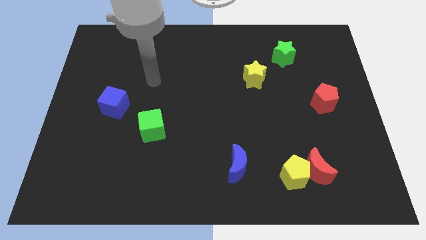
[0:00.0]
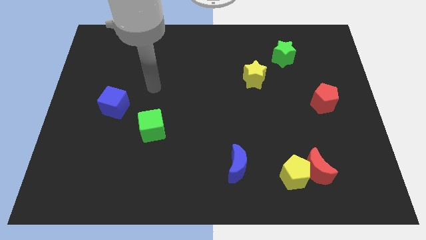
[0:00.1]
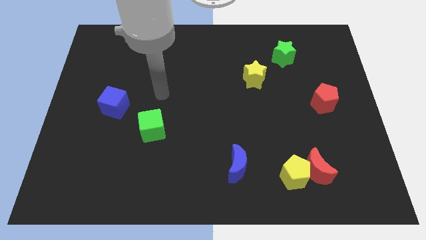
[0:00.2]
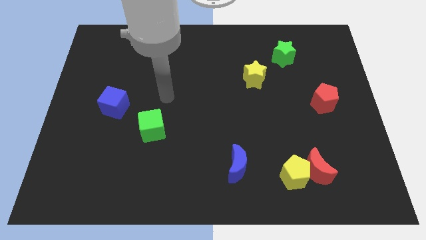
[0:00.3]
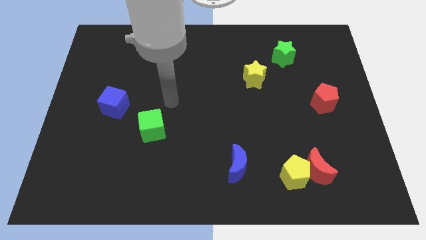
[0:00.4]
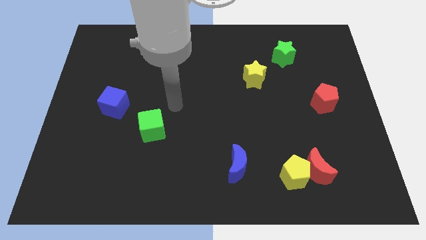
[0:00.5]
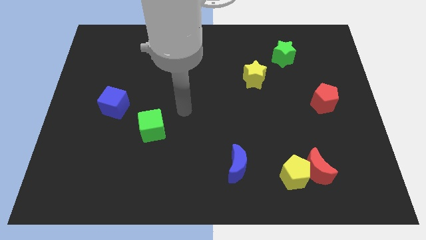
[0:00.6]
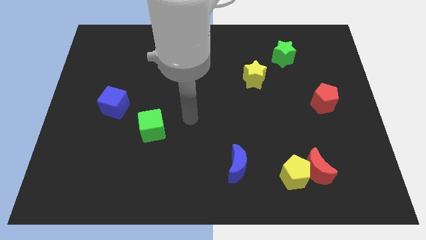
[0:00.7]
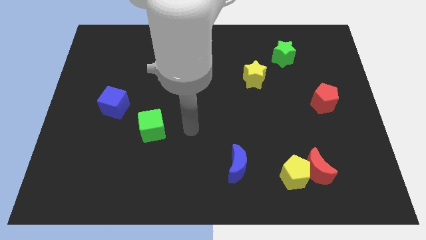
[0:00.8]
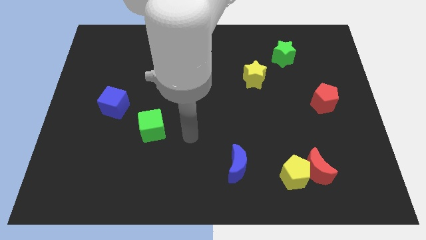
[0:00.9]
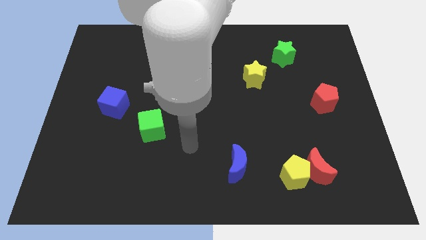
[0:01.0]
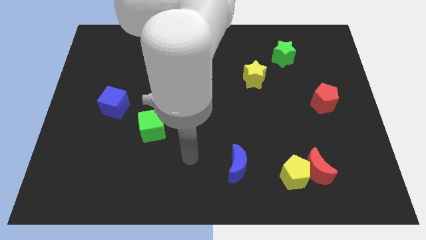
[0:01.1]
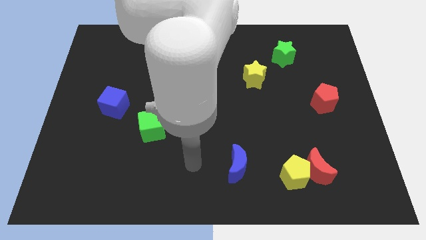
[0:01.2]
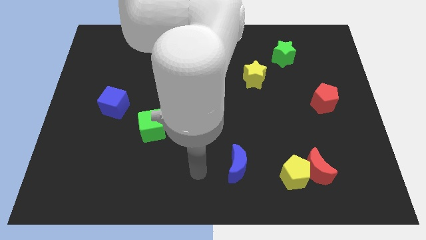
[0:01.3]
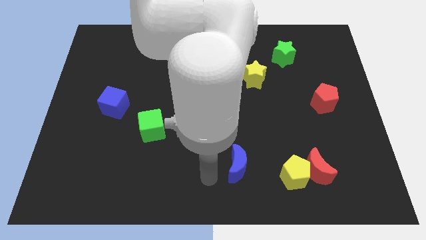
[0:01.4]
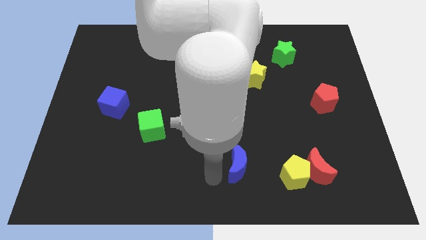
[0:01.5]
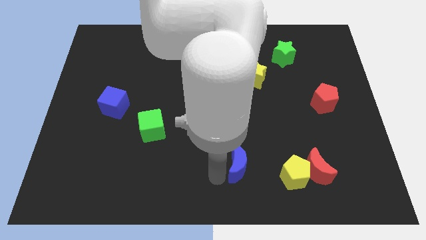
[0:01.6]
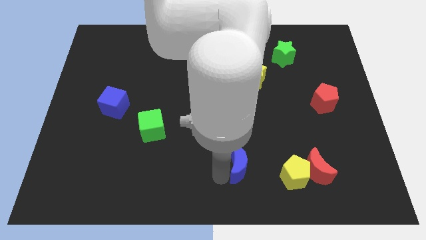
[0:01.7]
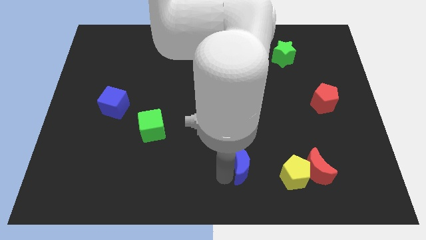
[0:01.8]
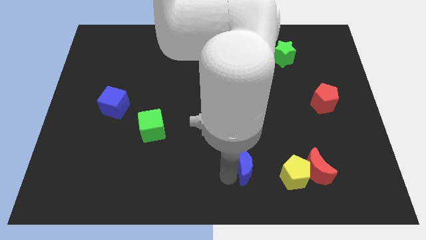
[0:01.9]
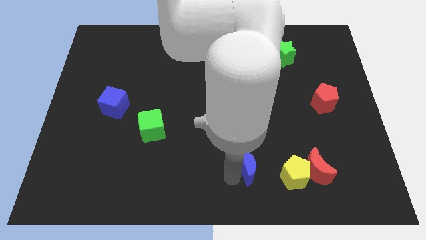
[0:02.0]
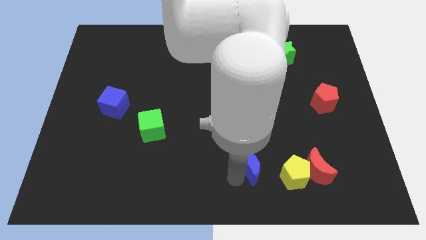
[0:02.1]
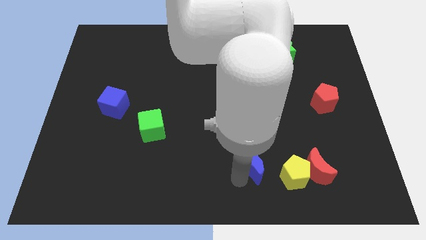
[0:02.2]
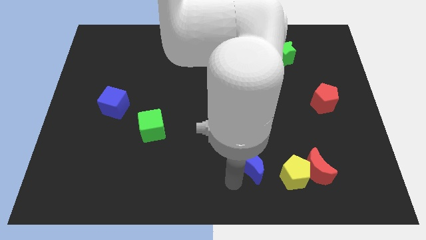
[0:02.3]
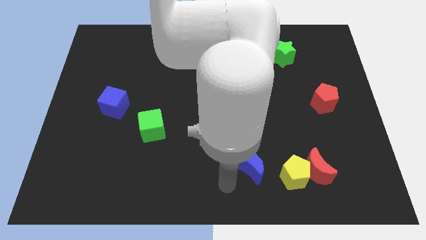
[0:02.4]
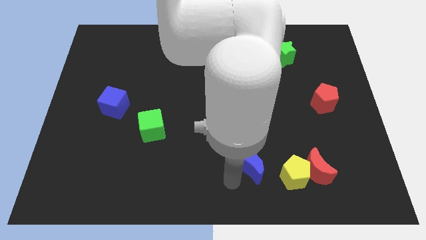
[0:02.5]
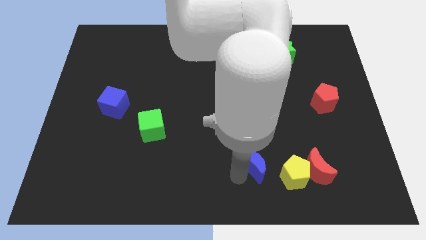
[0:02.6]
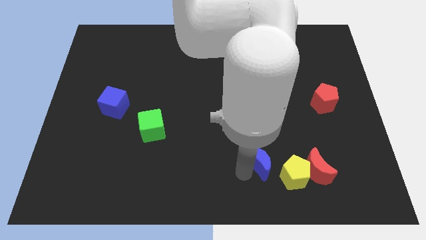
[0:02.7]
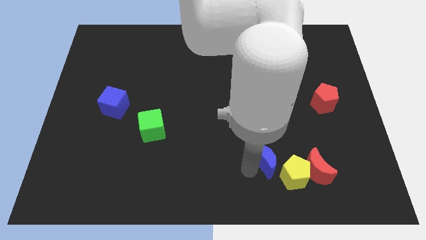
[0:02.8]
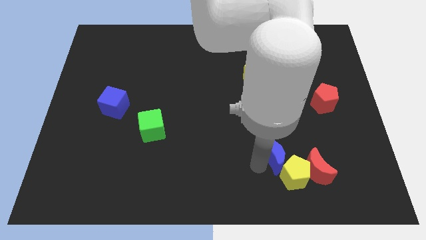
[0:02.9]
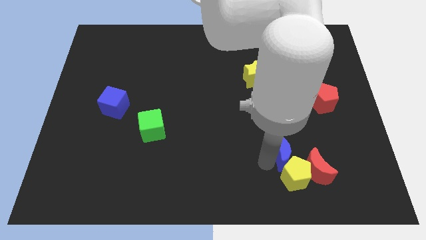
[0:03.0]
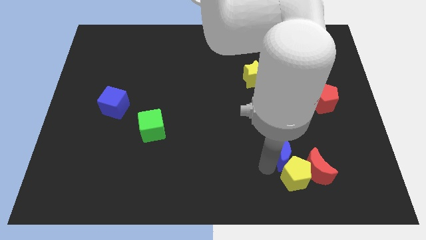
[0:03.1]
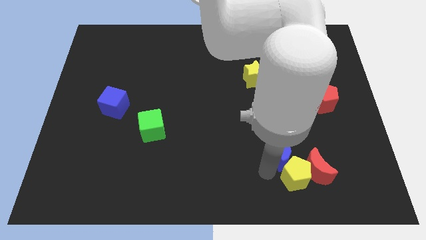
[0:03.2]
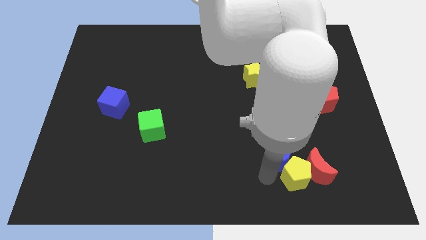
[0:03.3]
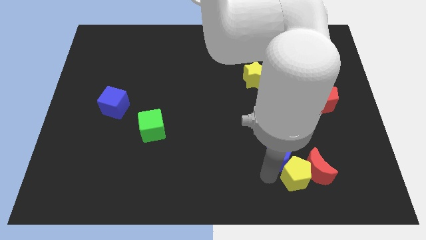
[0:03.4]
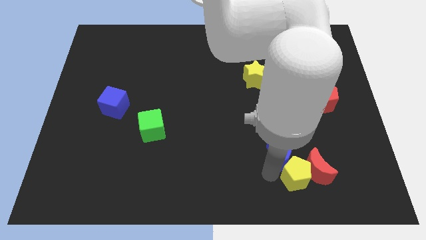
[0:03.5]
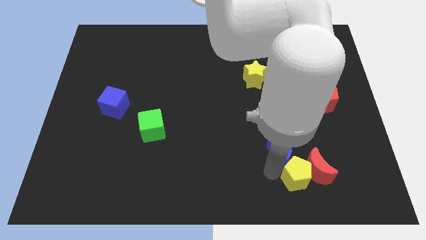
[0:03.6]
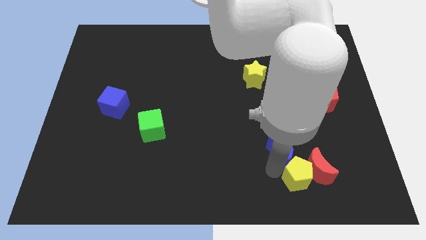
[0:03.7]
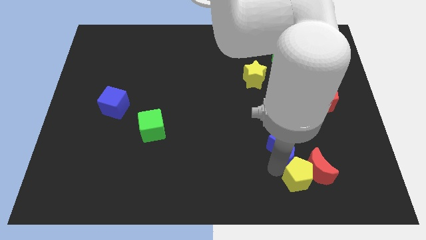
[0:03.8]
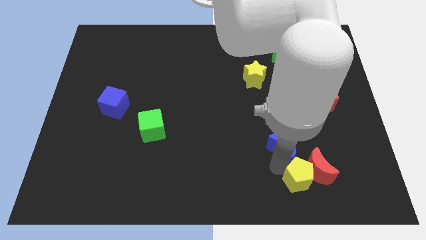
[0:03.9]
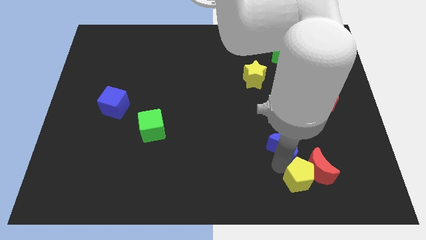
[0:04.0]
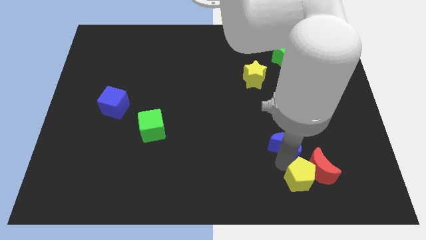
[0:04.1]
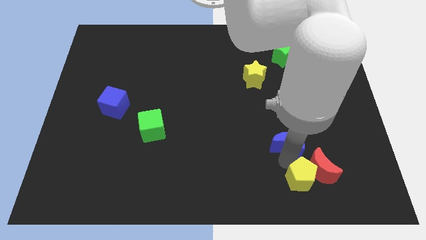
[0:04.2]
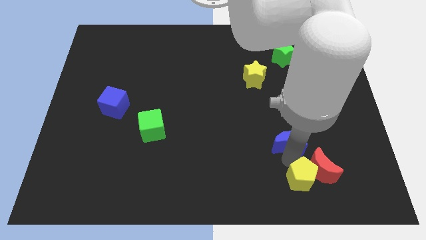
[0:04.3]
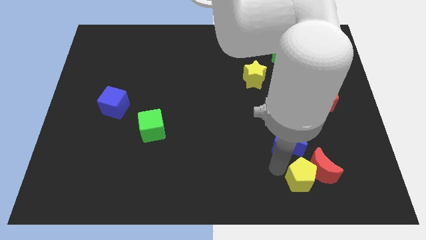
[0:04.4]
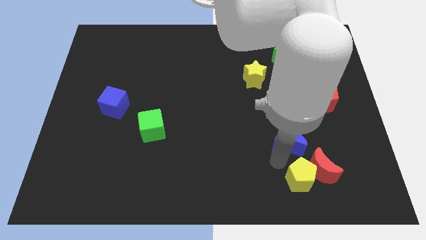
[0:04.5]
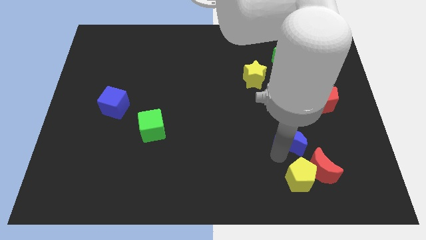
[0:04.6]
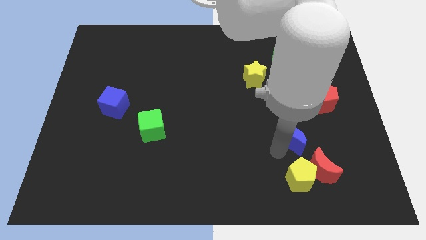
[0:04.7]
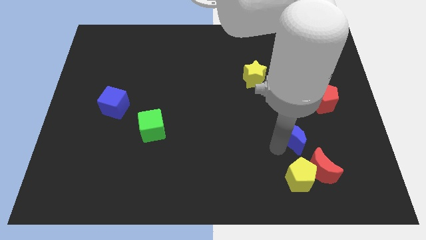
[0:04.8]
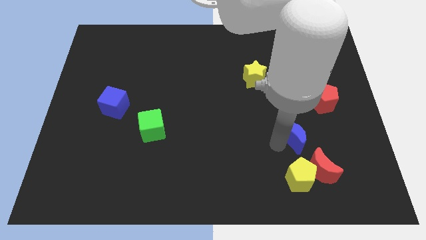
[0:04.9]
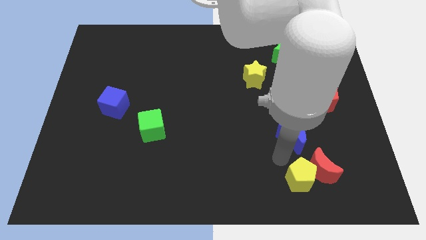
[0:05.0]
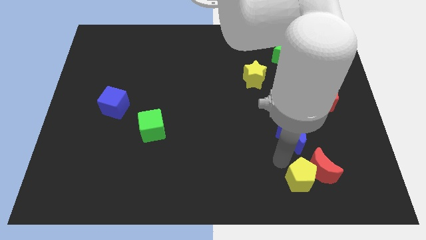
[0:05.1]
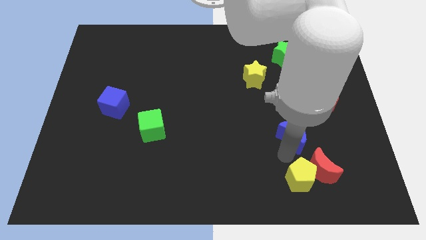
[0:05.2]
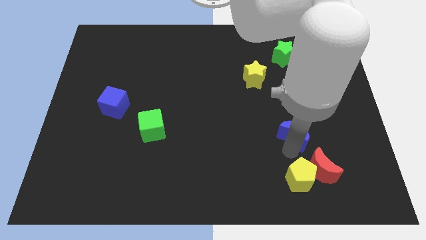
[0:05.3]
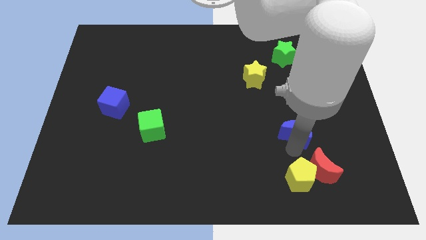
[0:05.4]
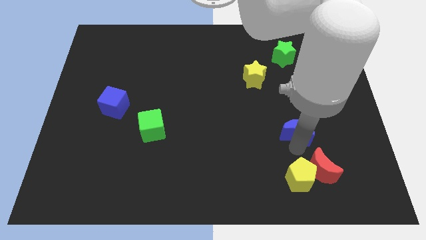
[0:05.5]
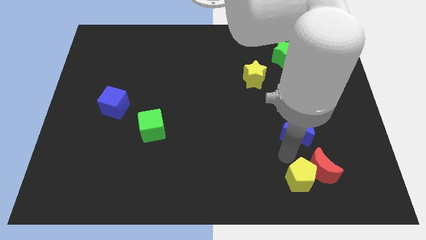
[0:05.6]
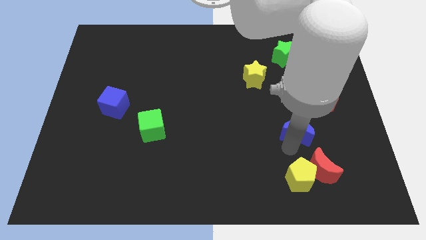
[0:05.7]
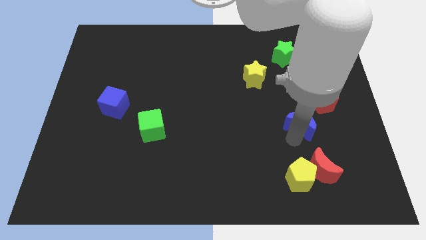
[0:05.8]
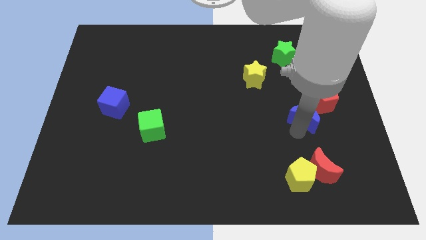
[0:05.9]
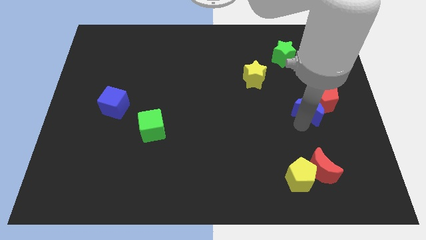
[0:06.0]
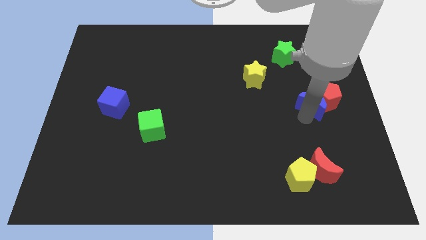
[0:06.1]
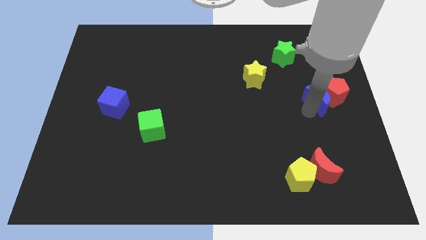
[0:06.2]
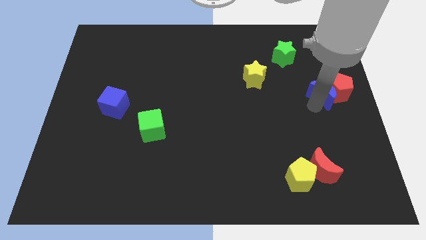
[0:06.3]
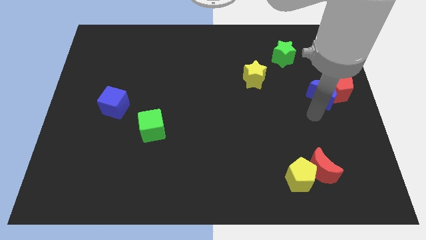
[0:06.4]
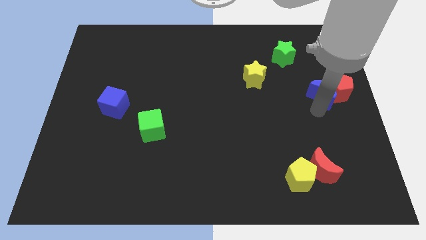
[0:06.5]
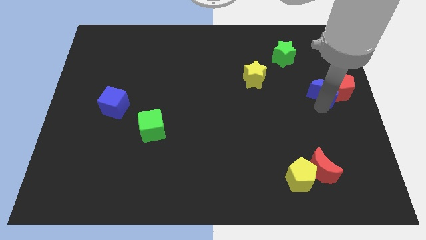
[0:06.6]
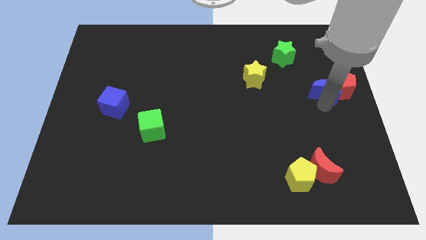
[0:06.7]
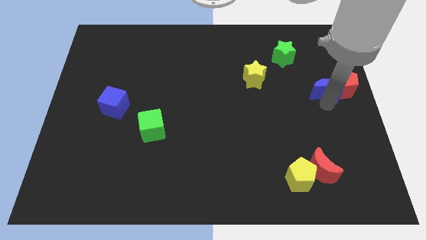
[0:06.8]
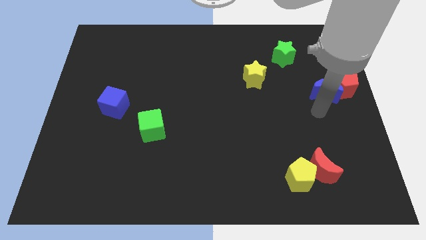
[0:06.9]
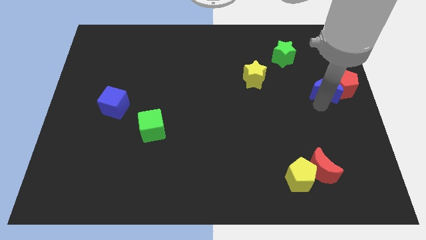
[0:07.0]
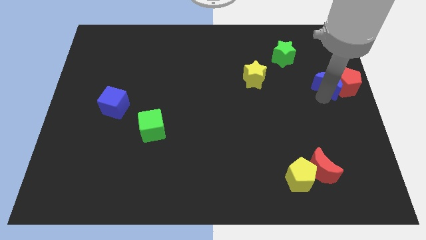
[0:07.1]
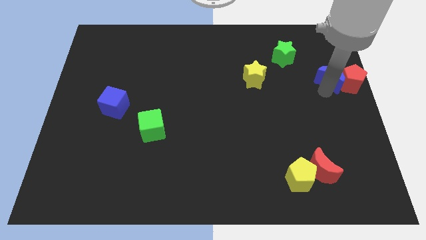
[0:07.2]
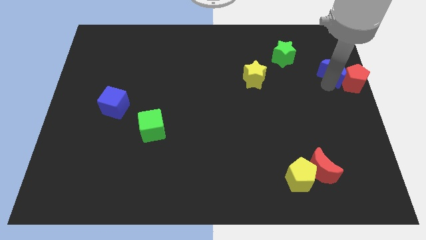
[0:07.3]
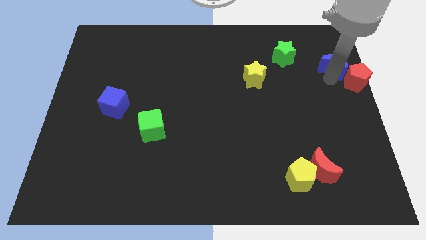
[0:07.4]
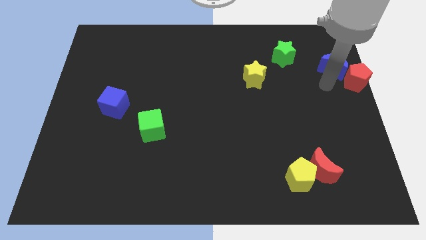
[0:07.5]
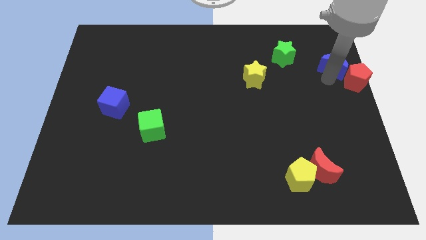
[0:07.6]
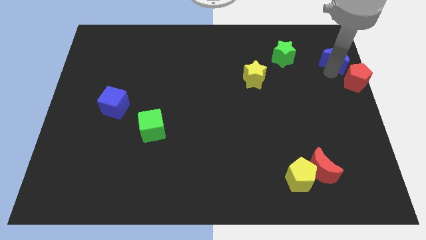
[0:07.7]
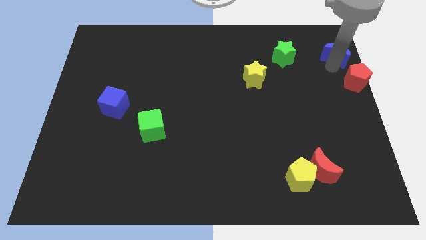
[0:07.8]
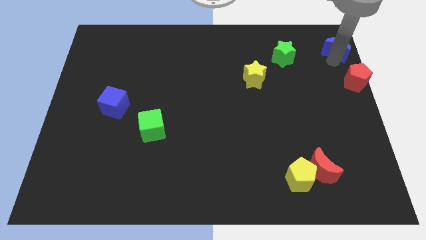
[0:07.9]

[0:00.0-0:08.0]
move the blue moon to the upper right corner
